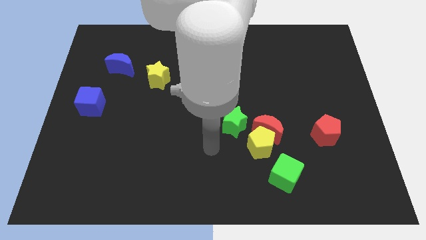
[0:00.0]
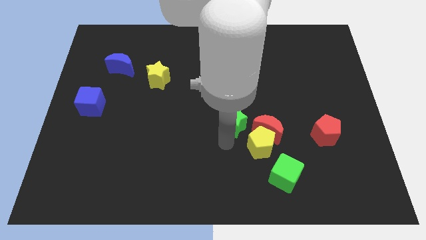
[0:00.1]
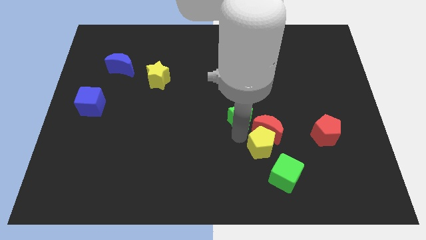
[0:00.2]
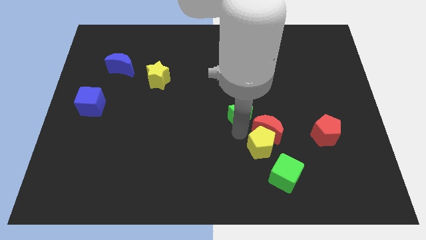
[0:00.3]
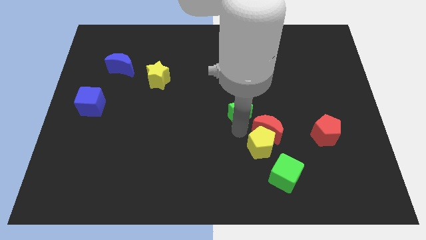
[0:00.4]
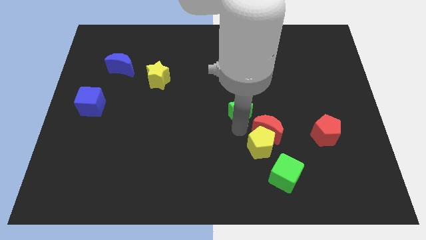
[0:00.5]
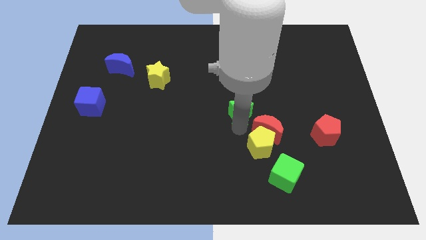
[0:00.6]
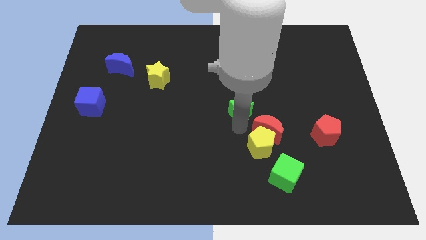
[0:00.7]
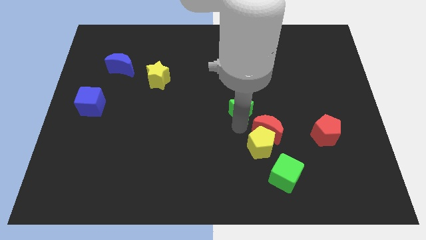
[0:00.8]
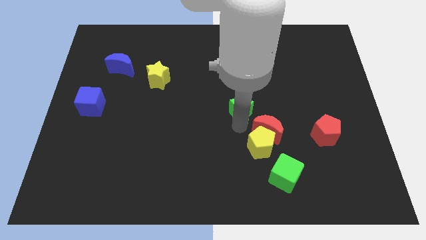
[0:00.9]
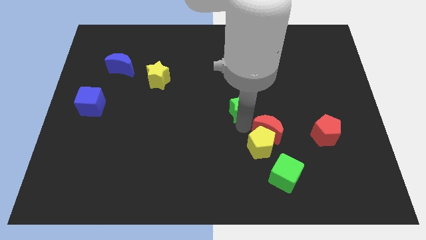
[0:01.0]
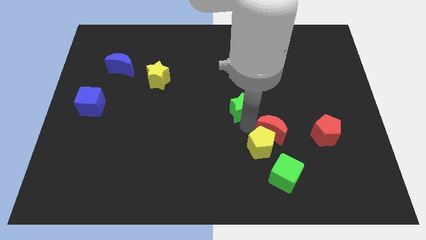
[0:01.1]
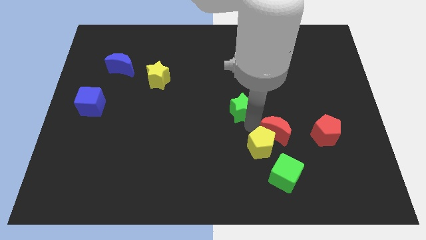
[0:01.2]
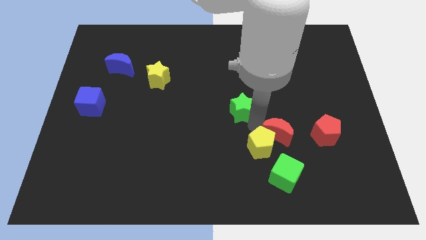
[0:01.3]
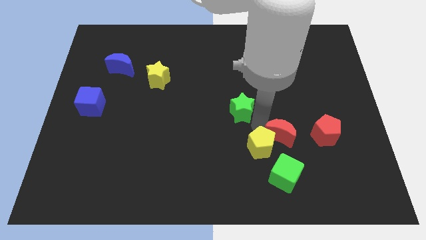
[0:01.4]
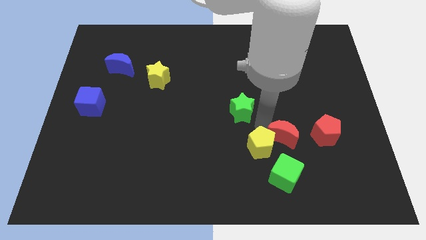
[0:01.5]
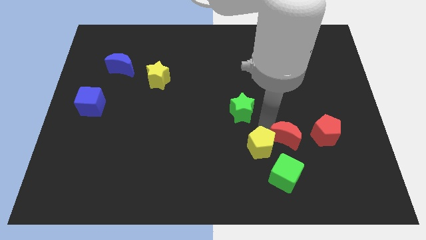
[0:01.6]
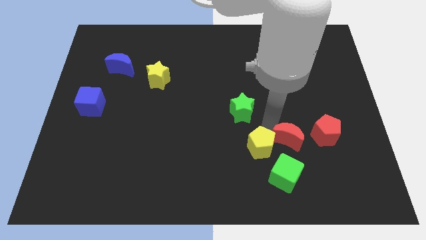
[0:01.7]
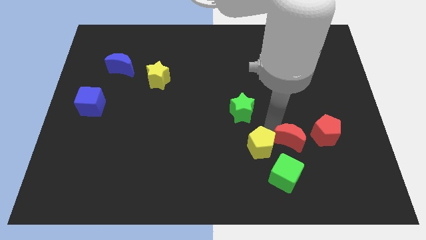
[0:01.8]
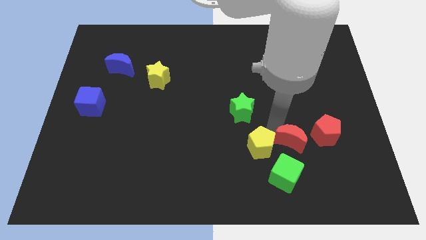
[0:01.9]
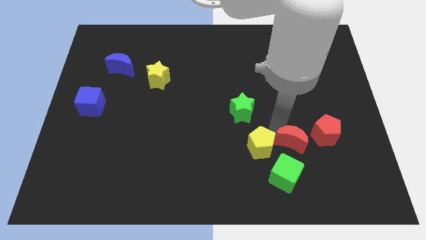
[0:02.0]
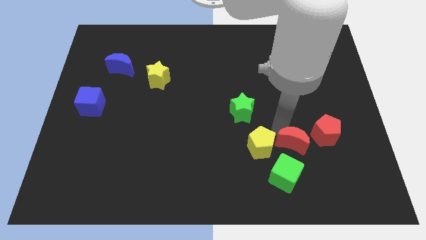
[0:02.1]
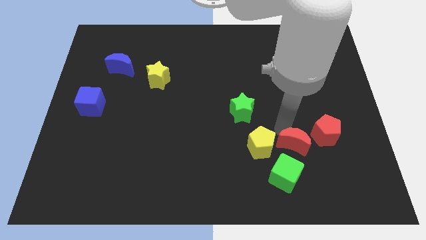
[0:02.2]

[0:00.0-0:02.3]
pull the red moon apart from the yellow pentagon and green star

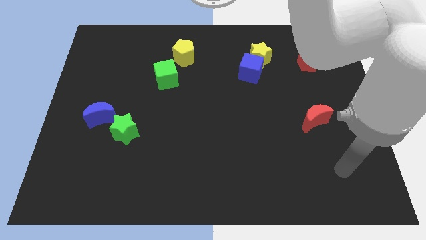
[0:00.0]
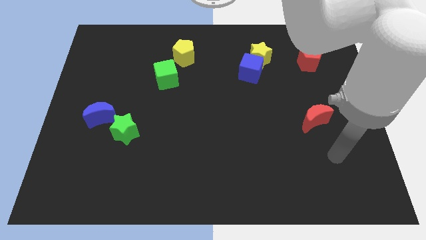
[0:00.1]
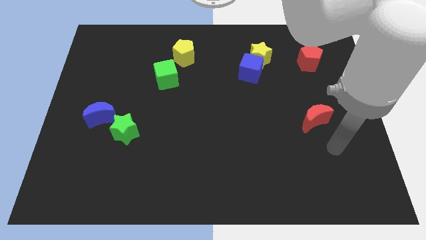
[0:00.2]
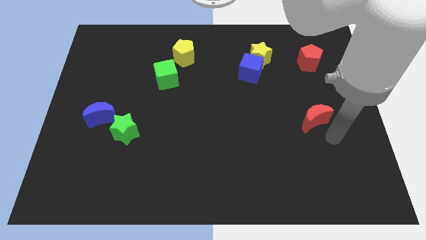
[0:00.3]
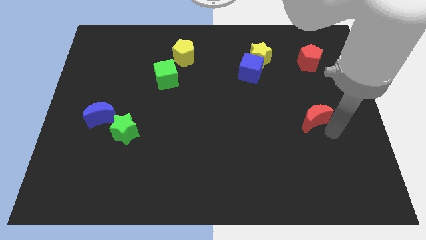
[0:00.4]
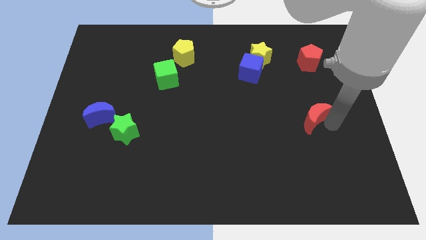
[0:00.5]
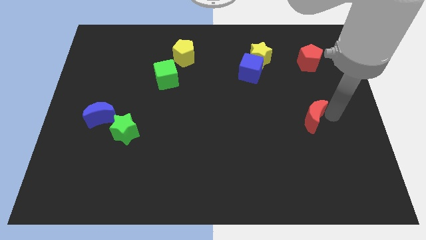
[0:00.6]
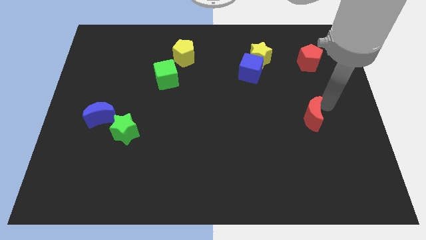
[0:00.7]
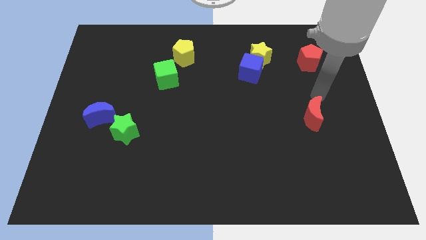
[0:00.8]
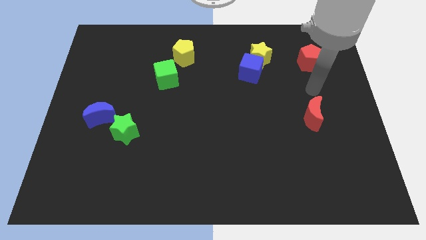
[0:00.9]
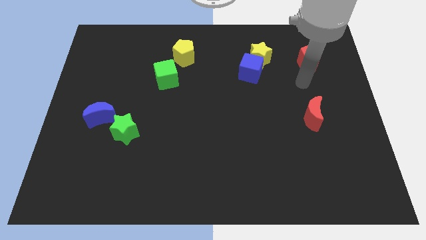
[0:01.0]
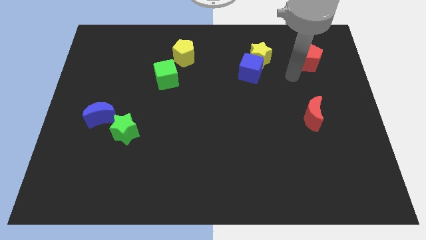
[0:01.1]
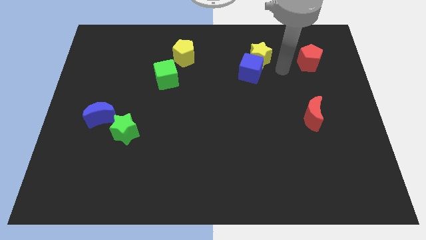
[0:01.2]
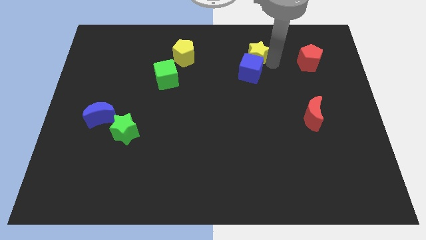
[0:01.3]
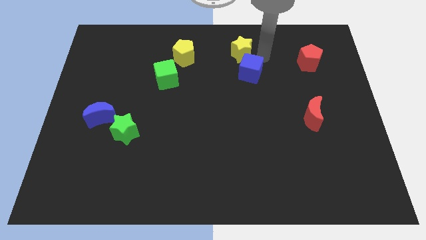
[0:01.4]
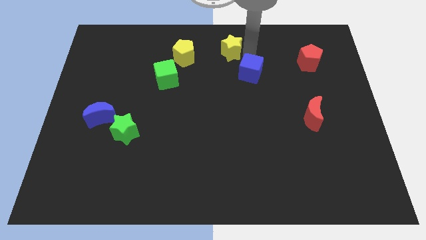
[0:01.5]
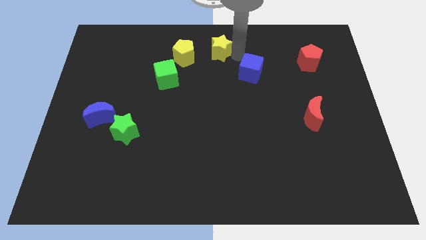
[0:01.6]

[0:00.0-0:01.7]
separate the blue cube from the yellow star

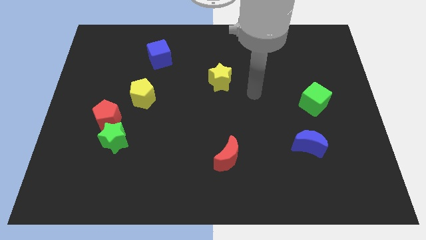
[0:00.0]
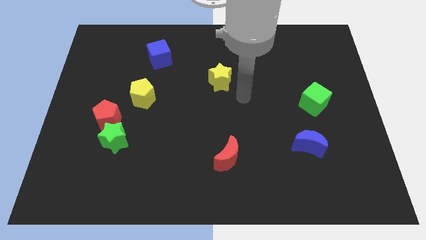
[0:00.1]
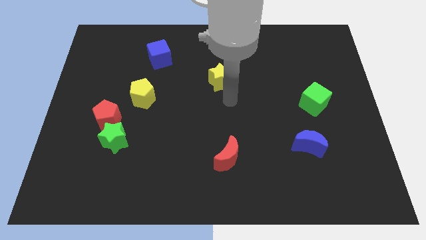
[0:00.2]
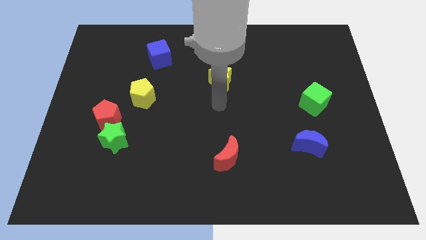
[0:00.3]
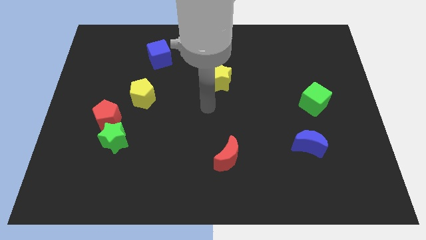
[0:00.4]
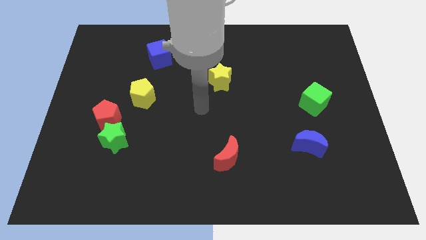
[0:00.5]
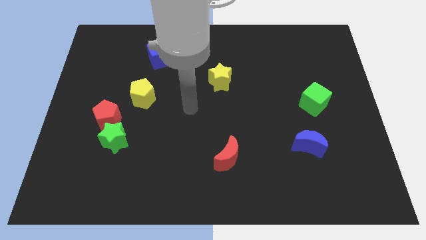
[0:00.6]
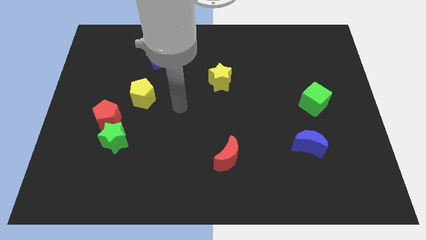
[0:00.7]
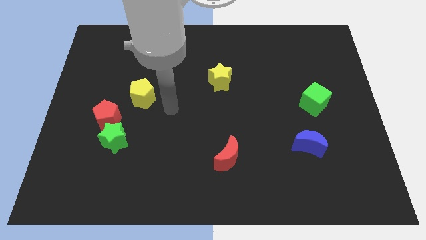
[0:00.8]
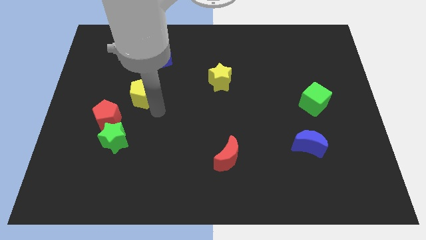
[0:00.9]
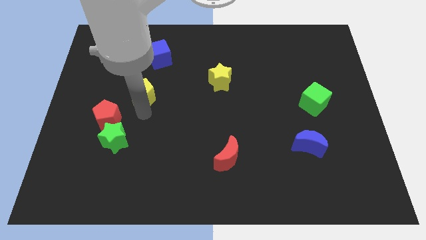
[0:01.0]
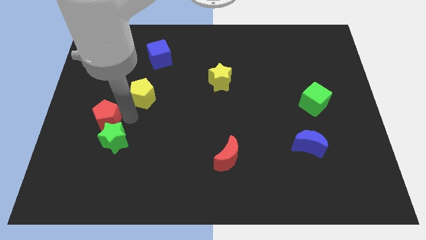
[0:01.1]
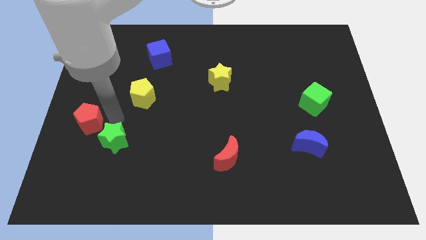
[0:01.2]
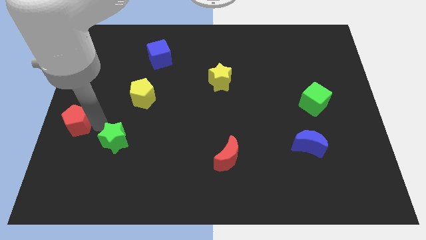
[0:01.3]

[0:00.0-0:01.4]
separate the green star from the red pentagon

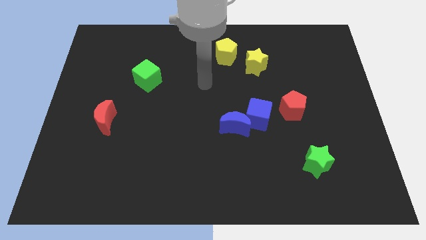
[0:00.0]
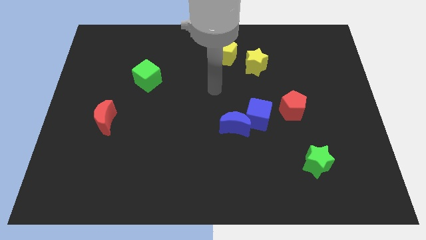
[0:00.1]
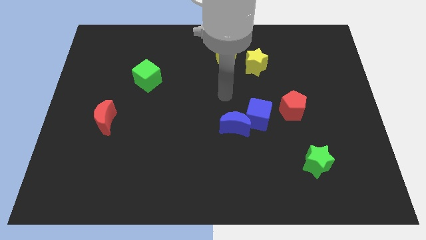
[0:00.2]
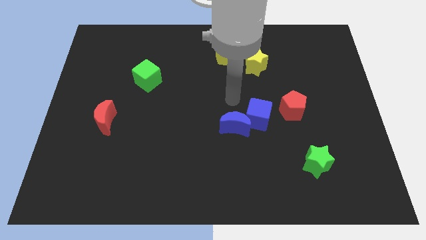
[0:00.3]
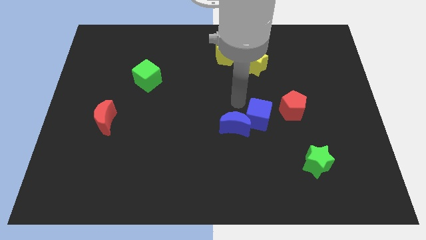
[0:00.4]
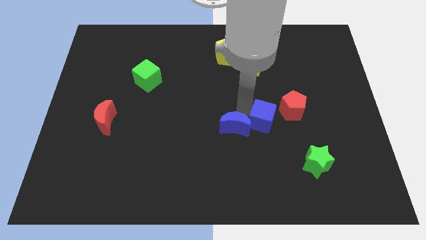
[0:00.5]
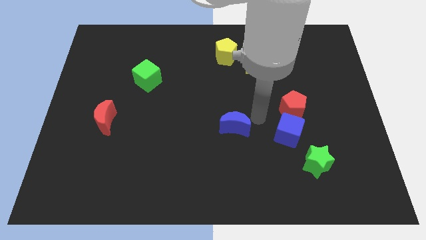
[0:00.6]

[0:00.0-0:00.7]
pull the blue moon apart from the blue cube

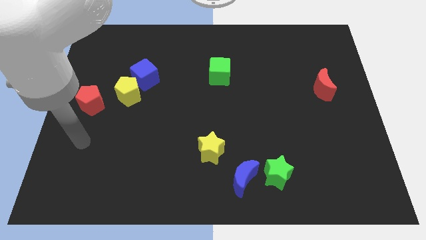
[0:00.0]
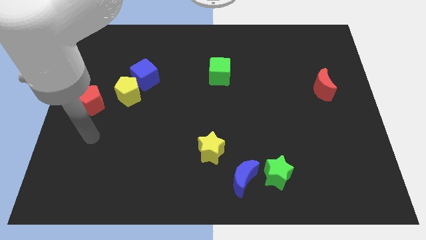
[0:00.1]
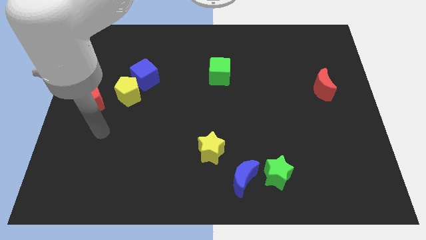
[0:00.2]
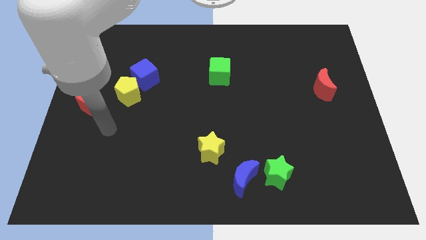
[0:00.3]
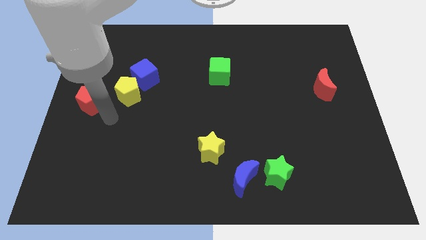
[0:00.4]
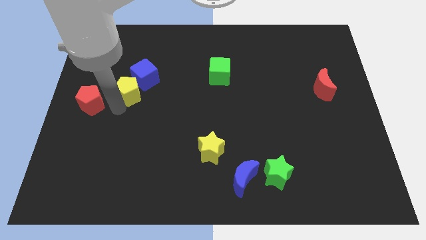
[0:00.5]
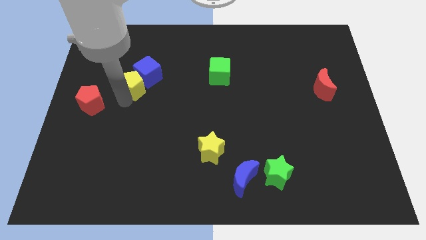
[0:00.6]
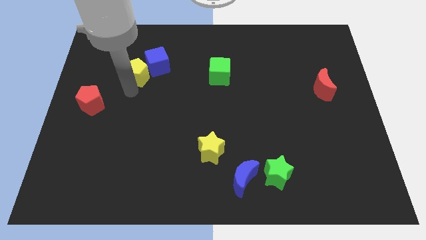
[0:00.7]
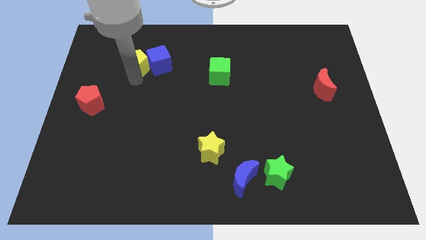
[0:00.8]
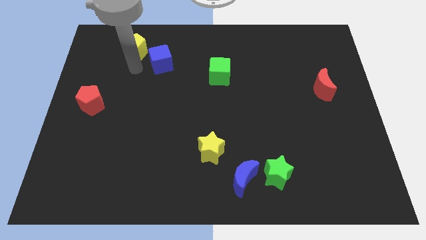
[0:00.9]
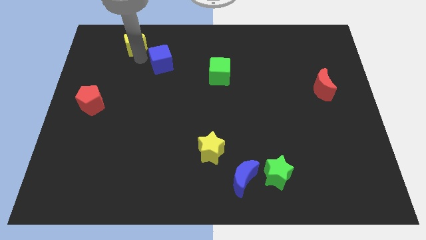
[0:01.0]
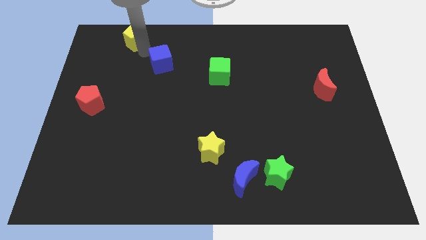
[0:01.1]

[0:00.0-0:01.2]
separate the blue cube from the yellow pentagon

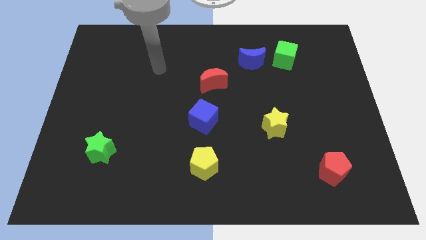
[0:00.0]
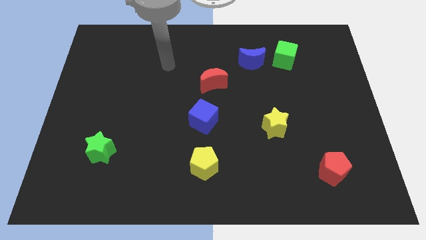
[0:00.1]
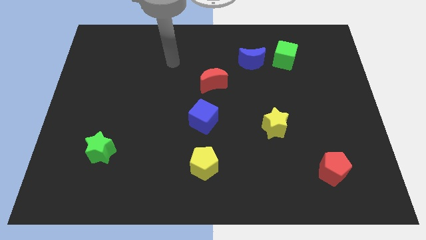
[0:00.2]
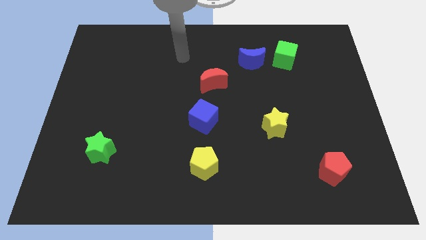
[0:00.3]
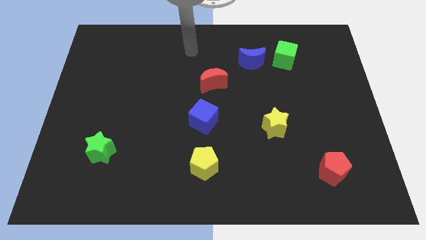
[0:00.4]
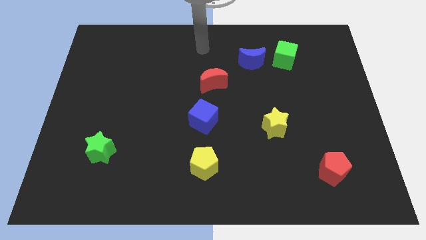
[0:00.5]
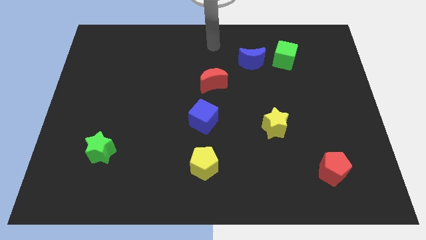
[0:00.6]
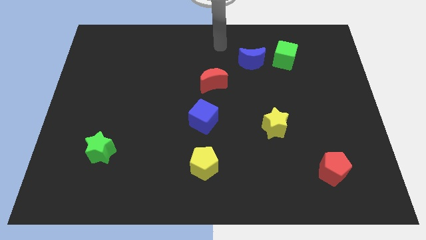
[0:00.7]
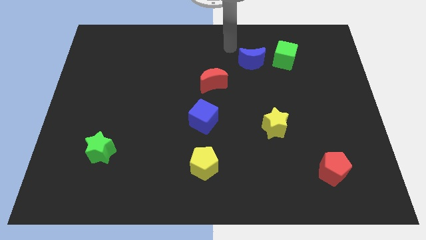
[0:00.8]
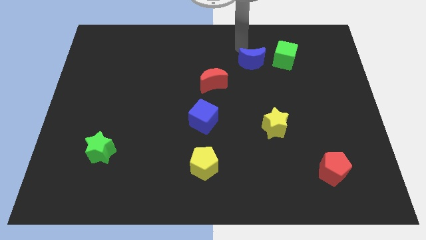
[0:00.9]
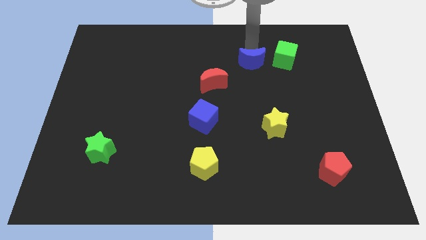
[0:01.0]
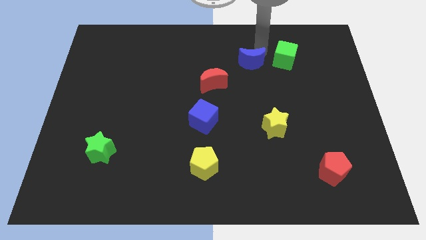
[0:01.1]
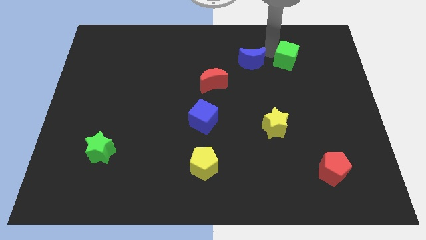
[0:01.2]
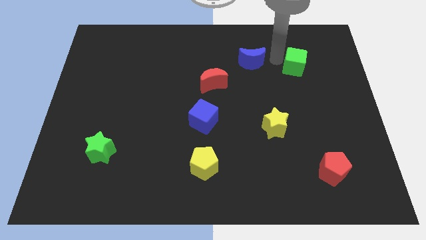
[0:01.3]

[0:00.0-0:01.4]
pull the blue moon apart from the green cube

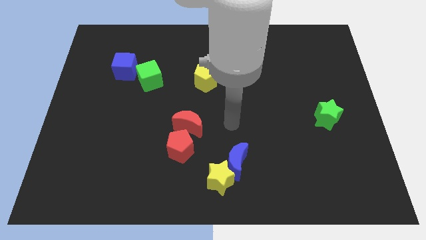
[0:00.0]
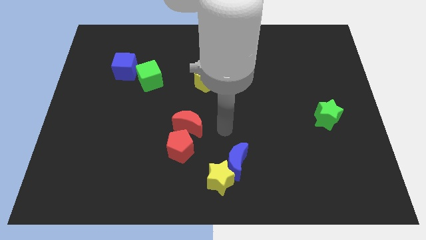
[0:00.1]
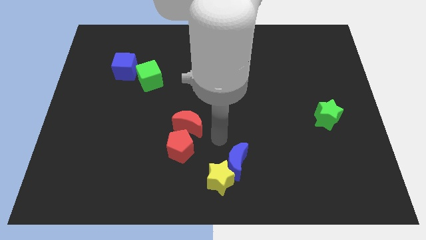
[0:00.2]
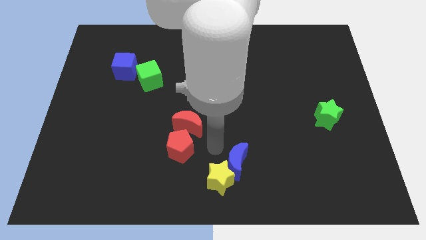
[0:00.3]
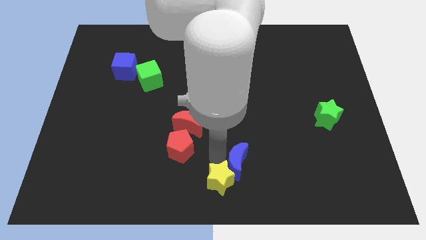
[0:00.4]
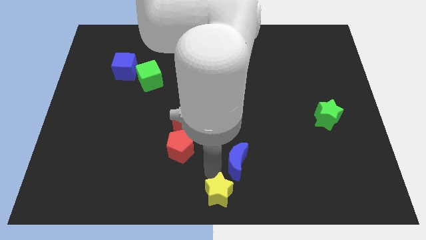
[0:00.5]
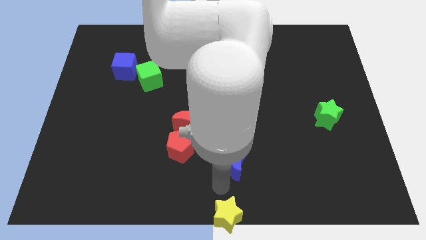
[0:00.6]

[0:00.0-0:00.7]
pull the blue moon apart from the yellow star
